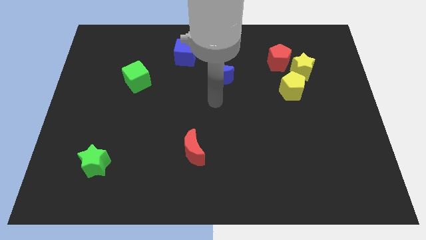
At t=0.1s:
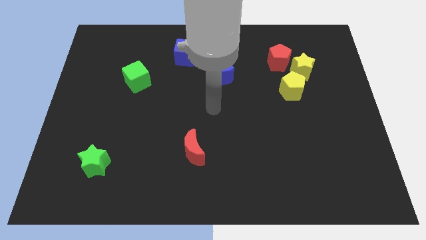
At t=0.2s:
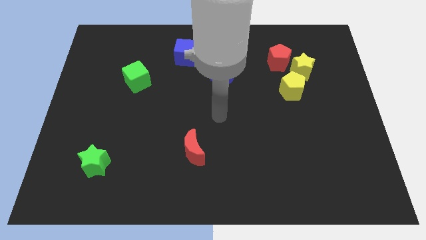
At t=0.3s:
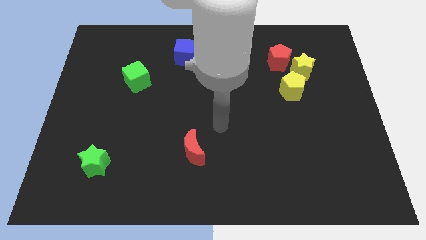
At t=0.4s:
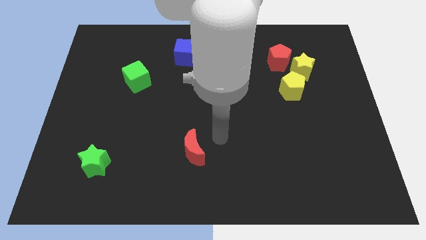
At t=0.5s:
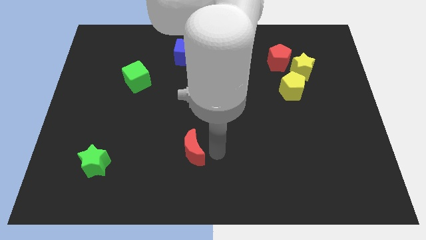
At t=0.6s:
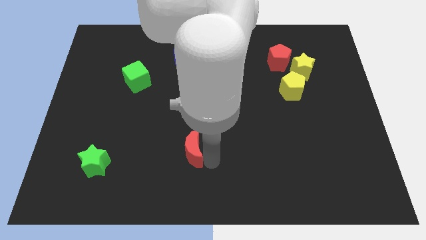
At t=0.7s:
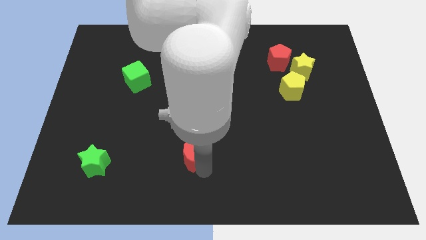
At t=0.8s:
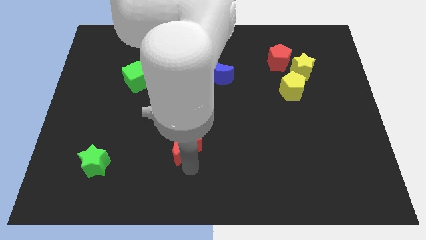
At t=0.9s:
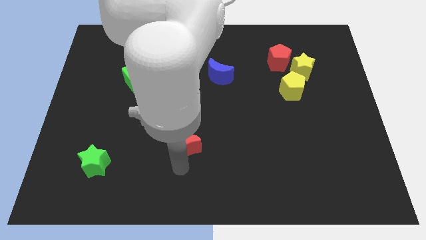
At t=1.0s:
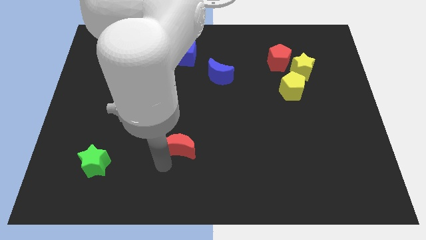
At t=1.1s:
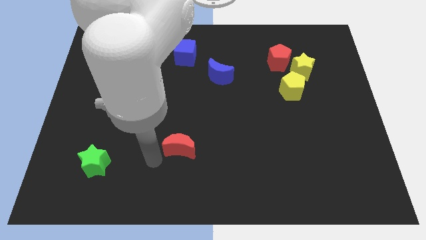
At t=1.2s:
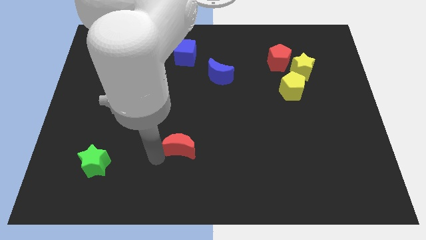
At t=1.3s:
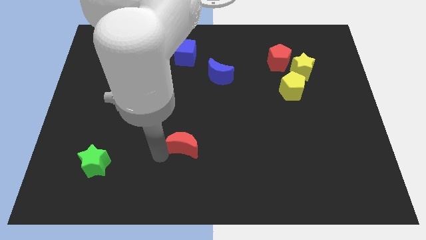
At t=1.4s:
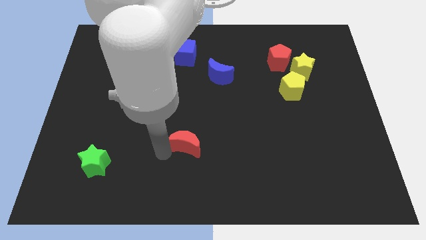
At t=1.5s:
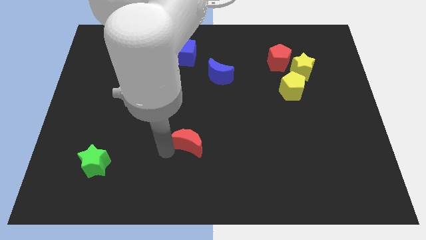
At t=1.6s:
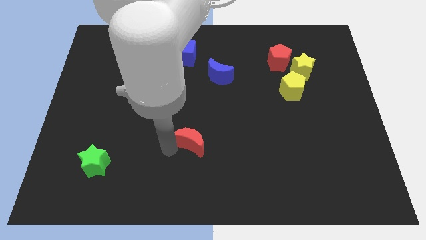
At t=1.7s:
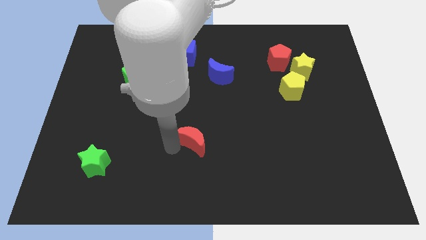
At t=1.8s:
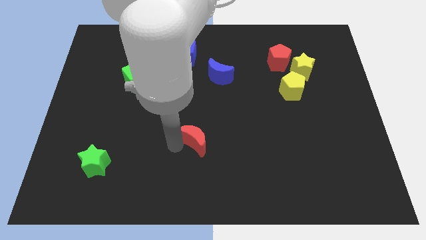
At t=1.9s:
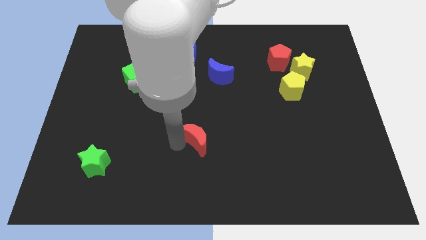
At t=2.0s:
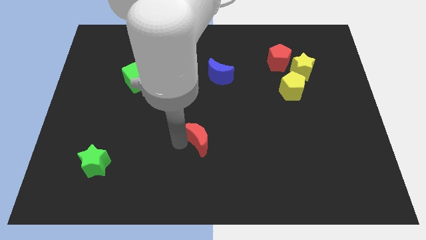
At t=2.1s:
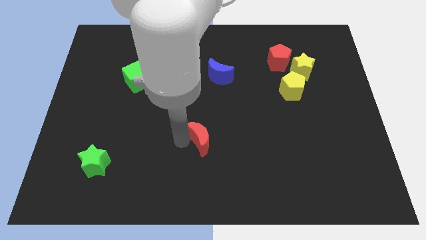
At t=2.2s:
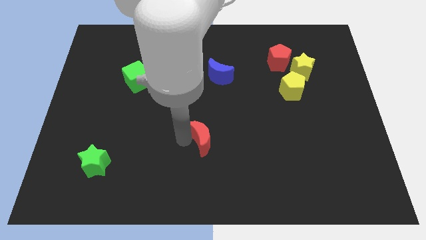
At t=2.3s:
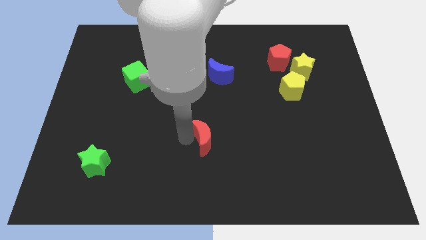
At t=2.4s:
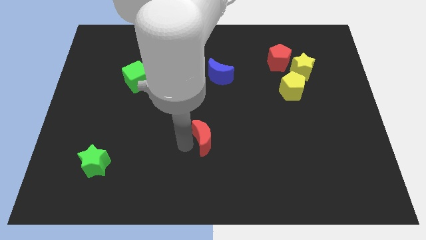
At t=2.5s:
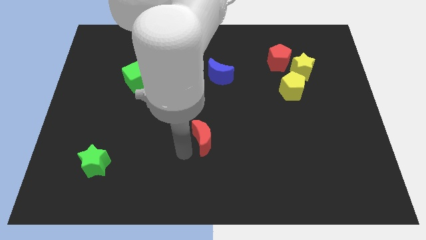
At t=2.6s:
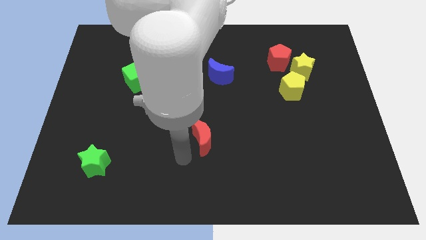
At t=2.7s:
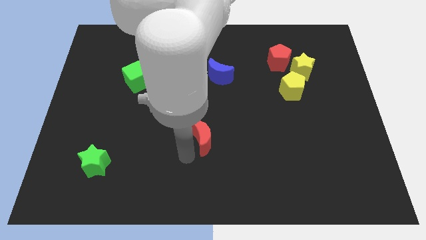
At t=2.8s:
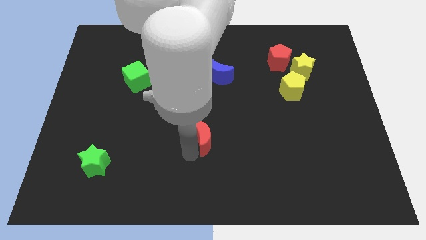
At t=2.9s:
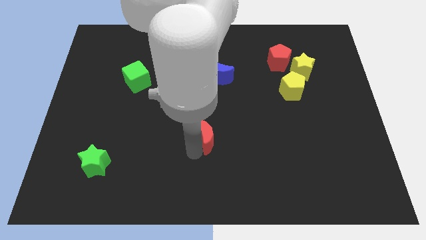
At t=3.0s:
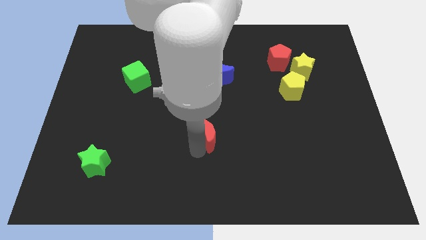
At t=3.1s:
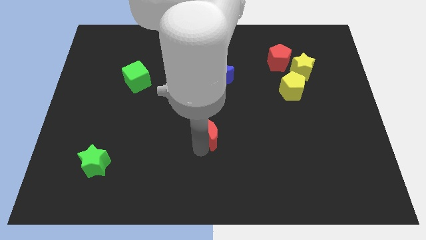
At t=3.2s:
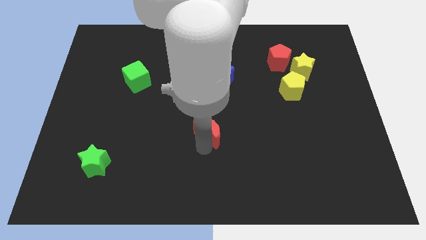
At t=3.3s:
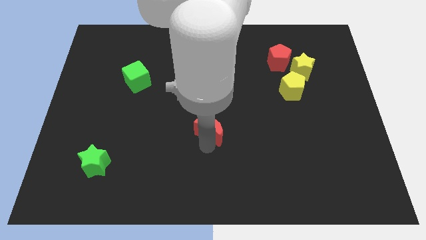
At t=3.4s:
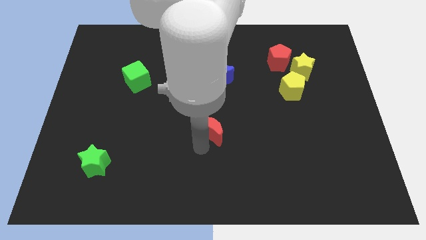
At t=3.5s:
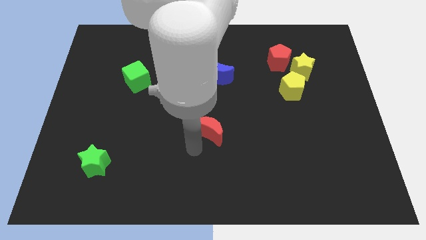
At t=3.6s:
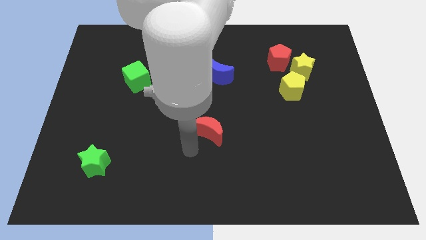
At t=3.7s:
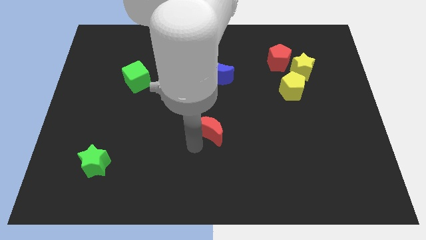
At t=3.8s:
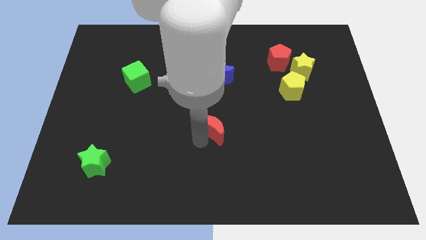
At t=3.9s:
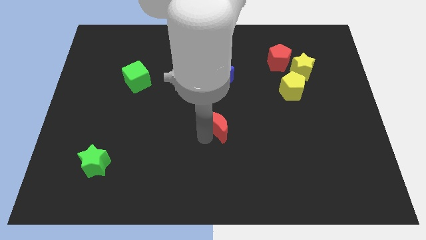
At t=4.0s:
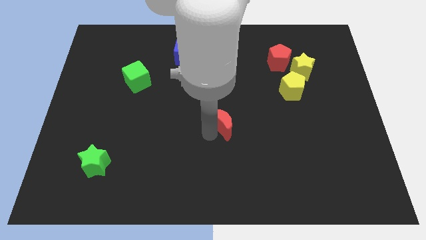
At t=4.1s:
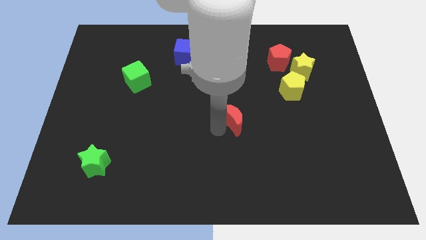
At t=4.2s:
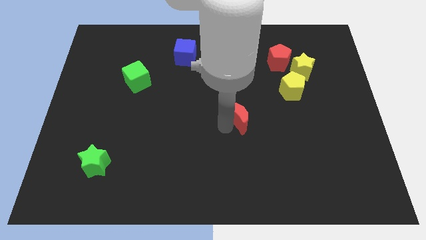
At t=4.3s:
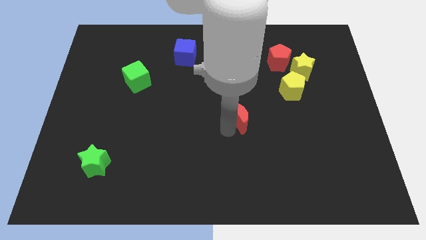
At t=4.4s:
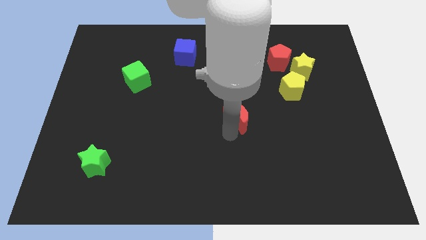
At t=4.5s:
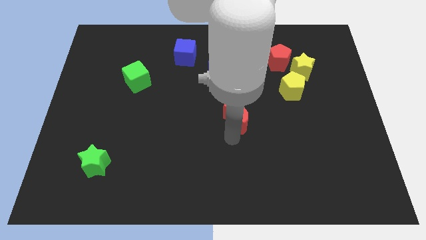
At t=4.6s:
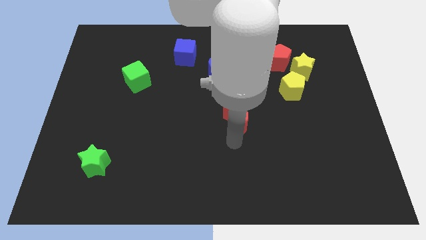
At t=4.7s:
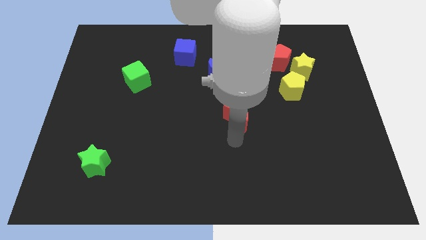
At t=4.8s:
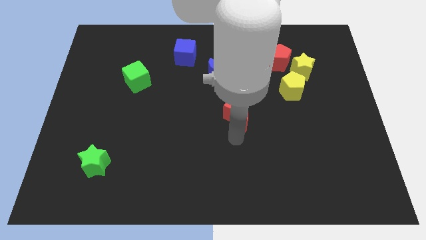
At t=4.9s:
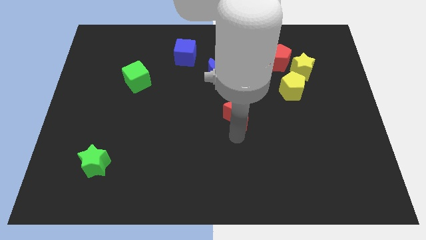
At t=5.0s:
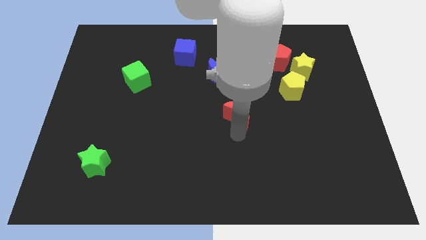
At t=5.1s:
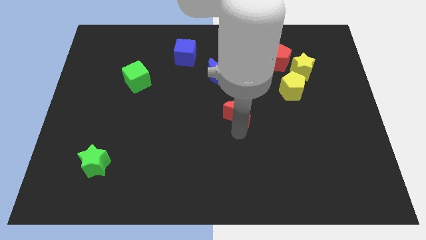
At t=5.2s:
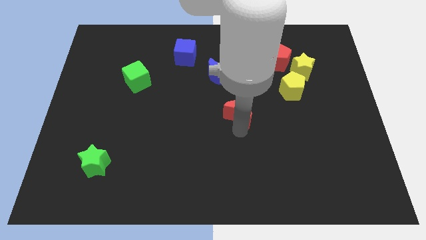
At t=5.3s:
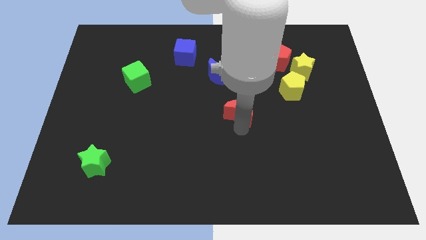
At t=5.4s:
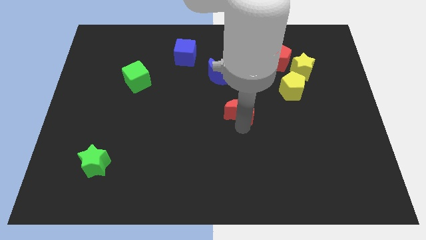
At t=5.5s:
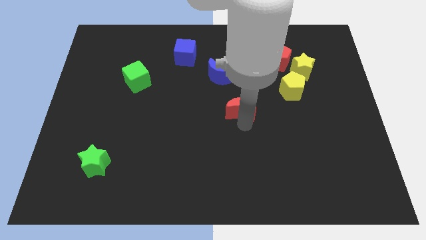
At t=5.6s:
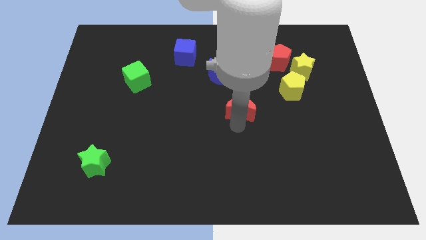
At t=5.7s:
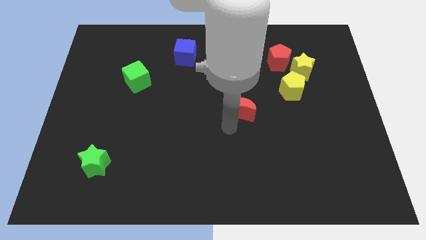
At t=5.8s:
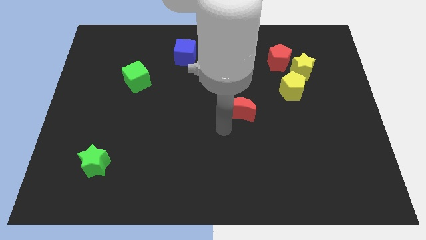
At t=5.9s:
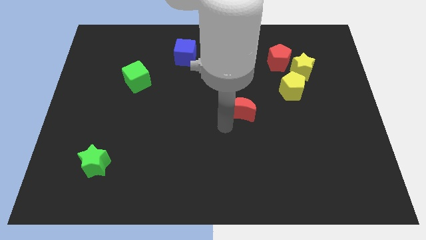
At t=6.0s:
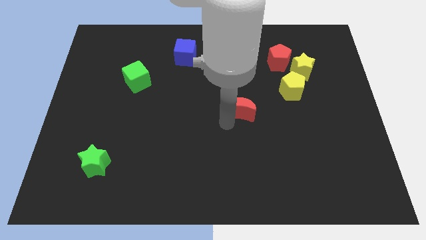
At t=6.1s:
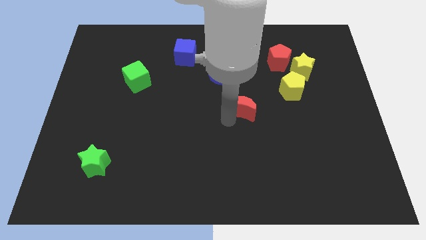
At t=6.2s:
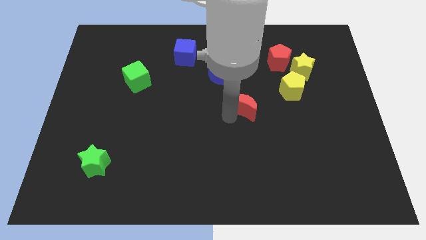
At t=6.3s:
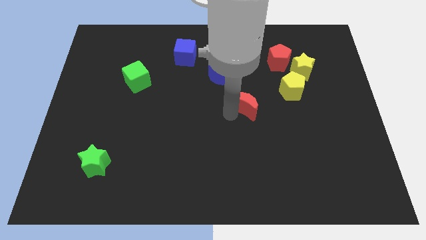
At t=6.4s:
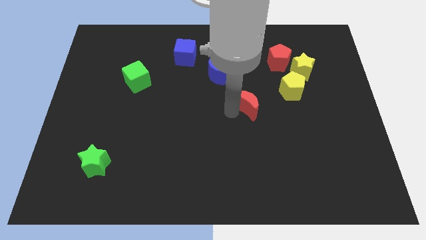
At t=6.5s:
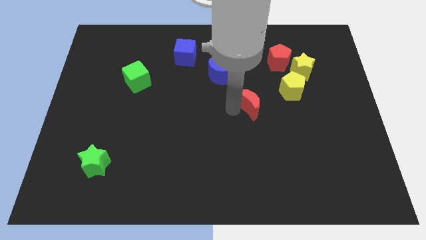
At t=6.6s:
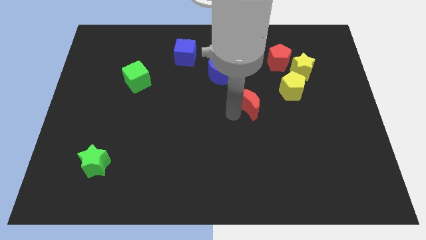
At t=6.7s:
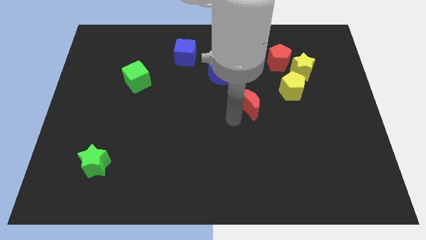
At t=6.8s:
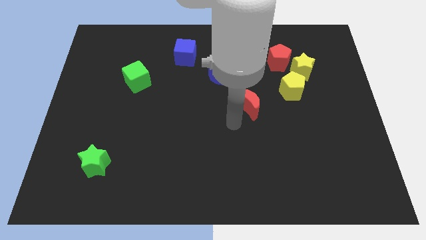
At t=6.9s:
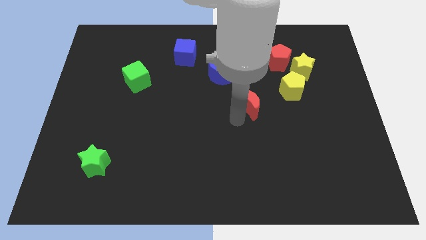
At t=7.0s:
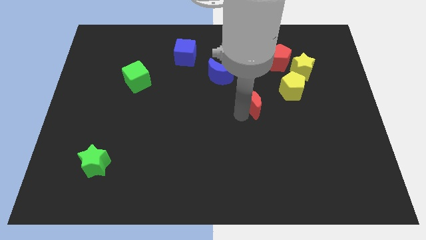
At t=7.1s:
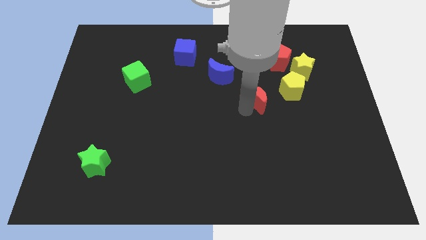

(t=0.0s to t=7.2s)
move the red moon upwards and then to the right

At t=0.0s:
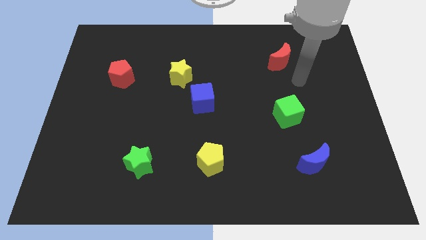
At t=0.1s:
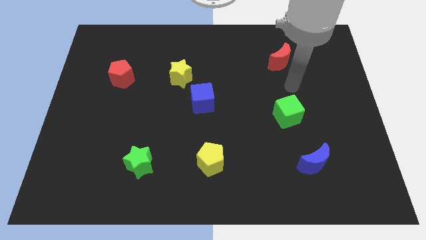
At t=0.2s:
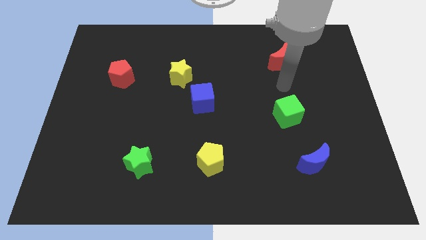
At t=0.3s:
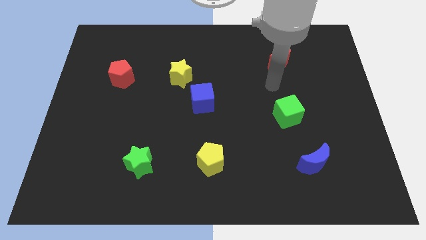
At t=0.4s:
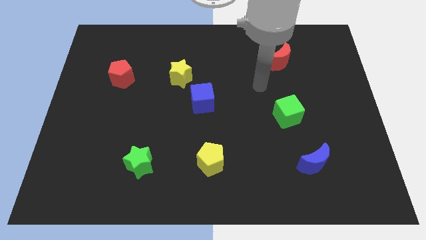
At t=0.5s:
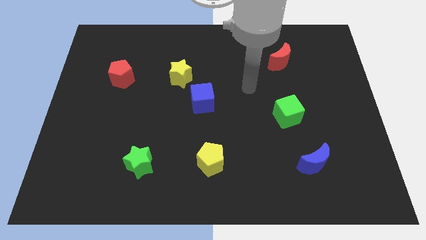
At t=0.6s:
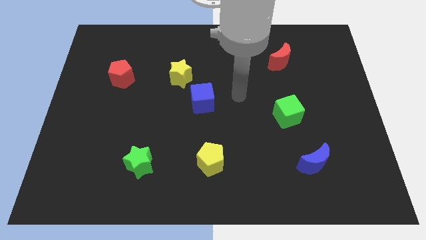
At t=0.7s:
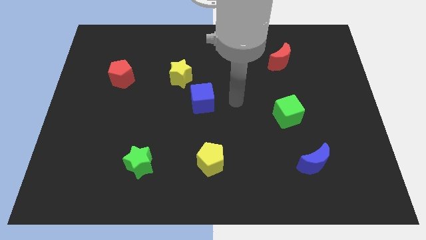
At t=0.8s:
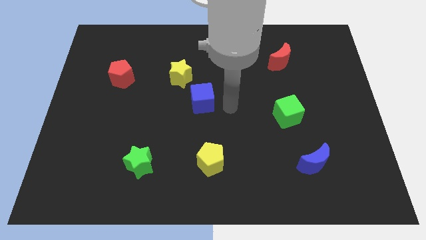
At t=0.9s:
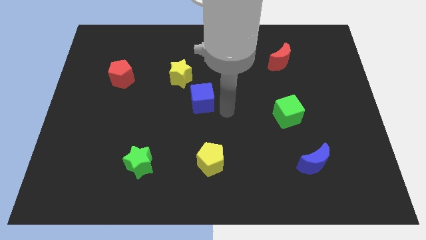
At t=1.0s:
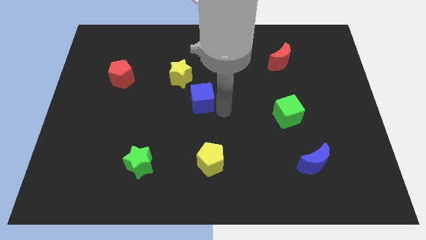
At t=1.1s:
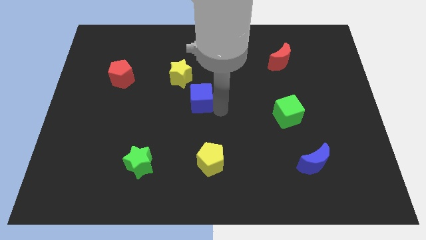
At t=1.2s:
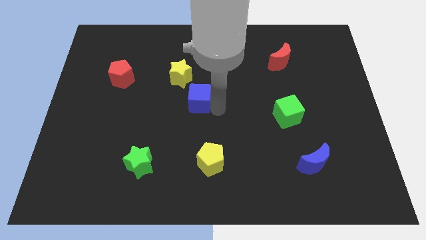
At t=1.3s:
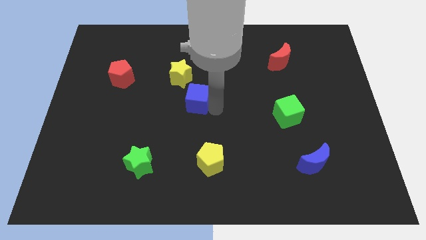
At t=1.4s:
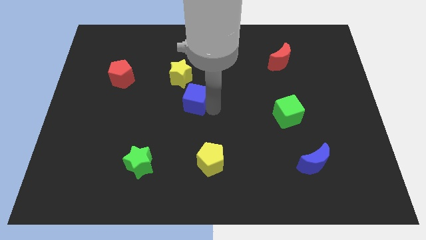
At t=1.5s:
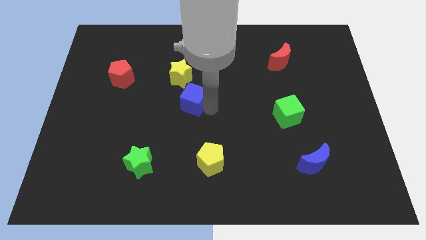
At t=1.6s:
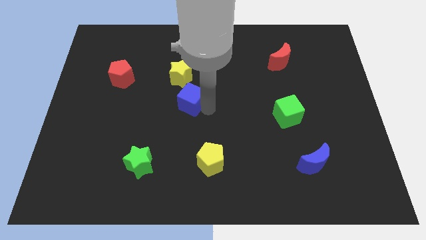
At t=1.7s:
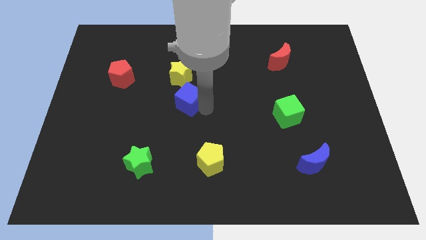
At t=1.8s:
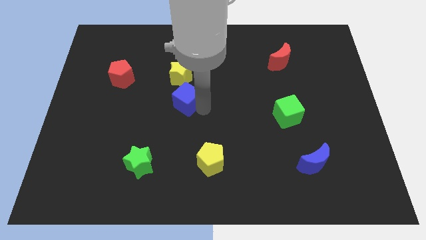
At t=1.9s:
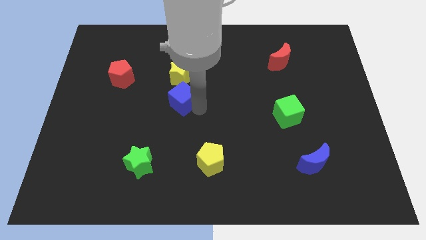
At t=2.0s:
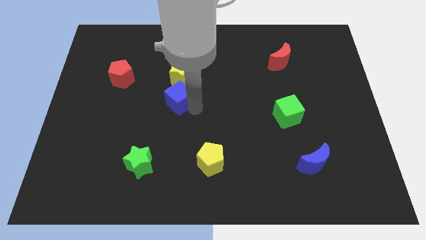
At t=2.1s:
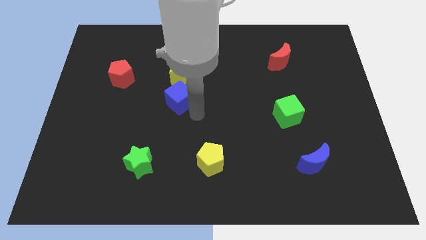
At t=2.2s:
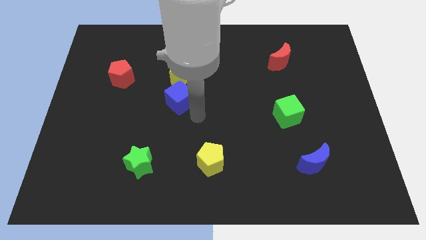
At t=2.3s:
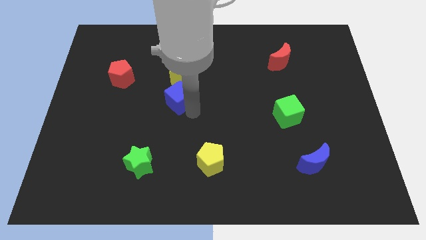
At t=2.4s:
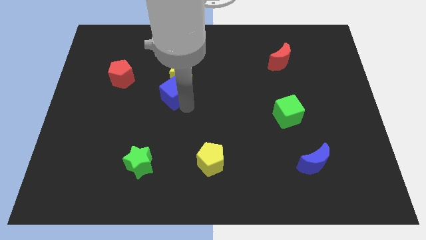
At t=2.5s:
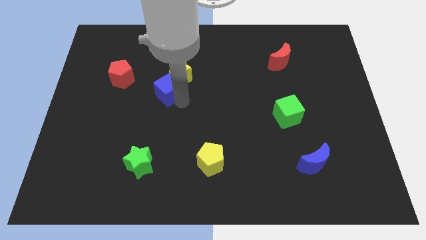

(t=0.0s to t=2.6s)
move the blue cube up and to the left diagonally a bit
